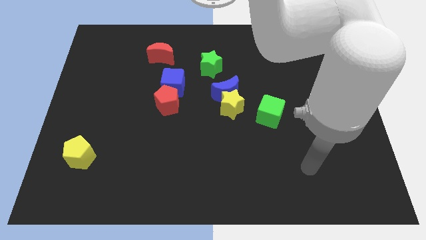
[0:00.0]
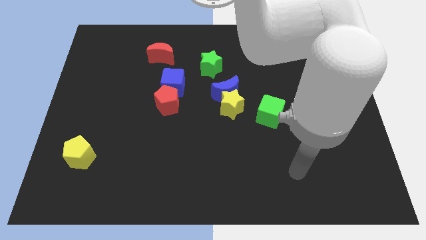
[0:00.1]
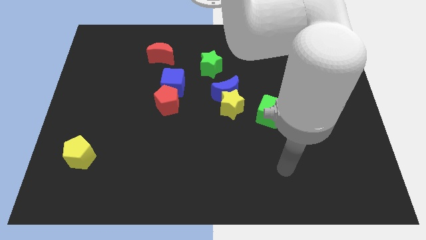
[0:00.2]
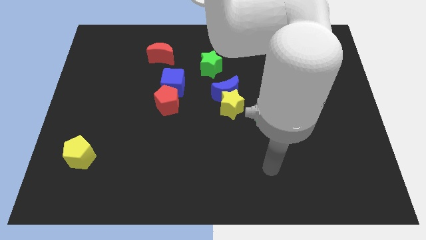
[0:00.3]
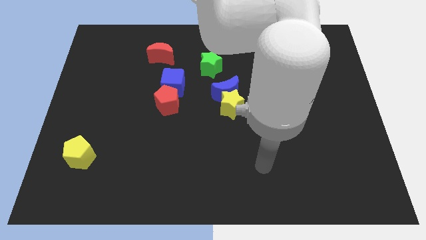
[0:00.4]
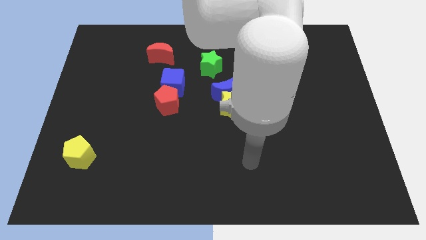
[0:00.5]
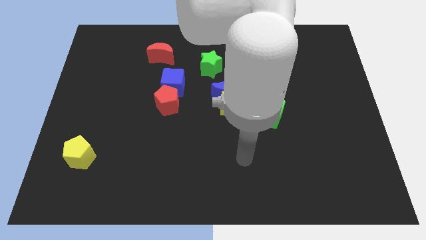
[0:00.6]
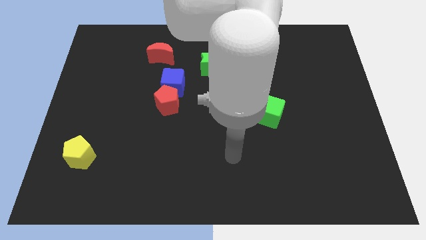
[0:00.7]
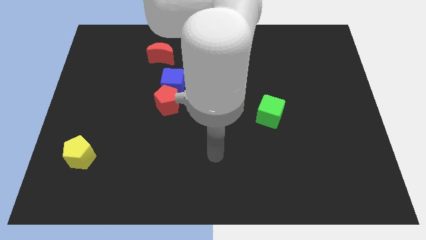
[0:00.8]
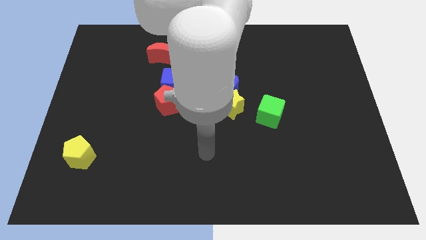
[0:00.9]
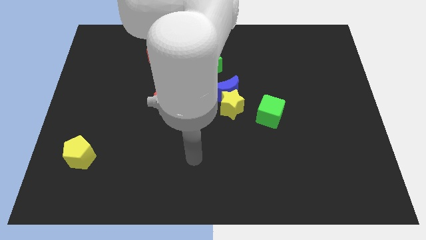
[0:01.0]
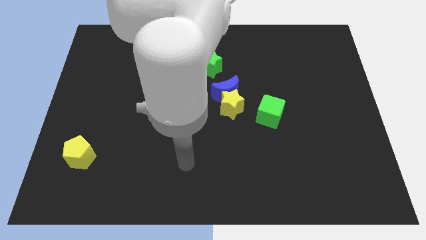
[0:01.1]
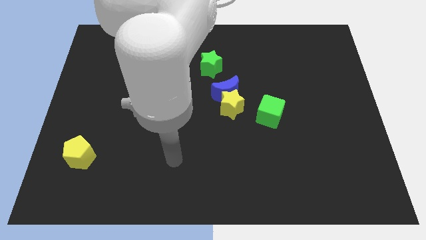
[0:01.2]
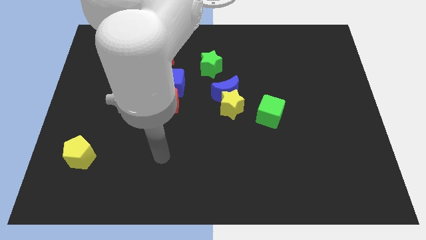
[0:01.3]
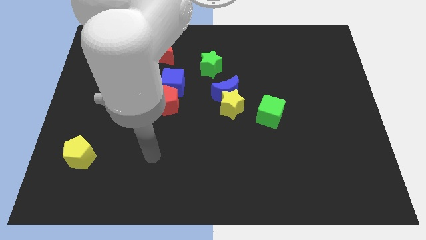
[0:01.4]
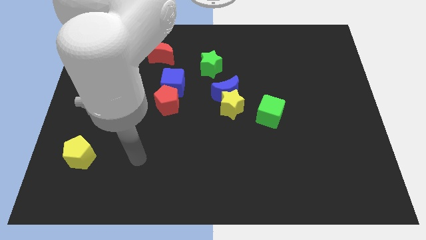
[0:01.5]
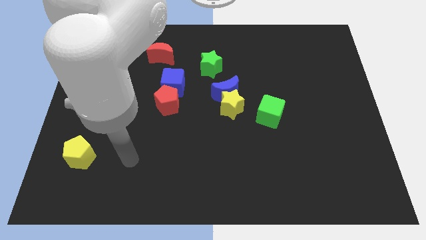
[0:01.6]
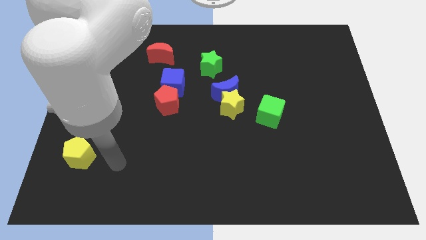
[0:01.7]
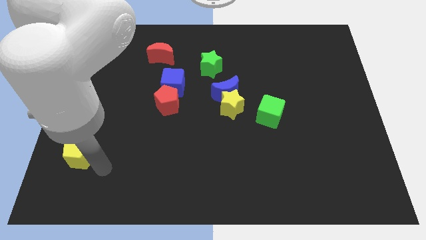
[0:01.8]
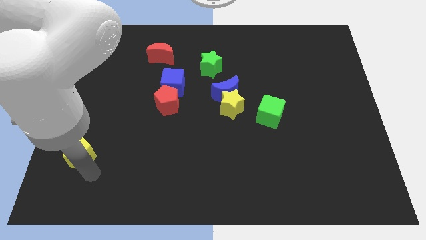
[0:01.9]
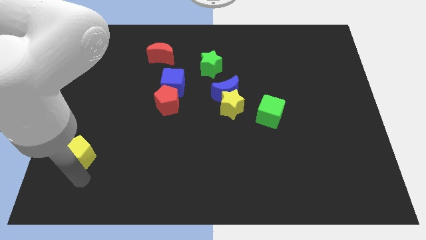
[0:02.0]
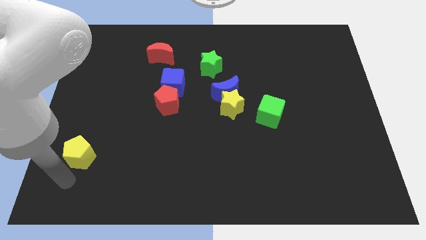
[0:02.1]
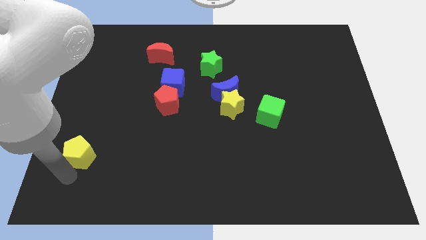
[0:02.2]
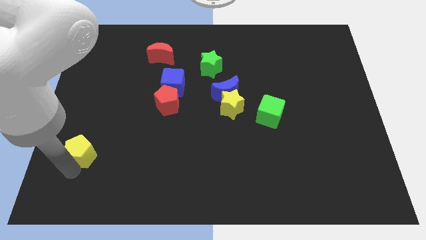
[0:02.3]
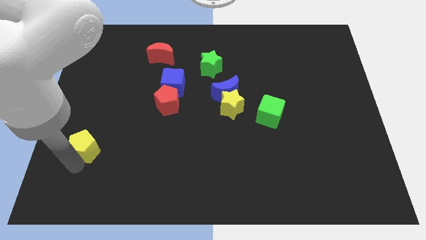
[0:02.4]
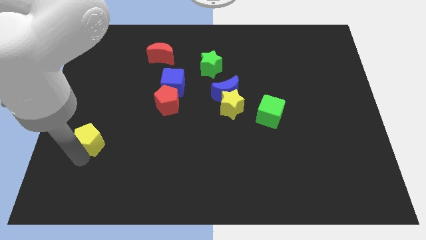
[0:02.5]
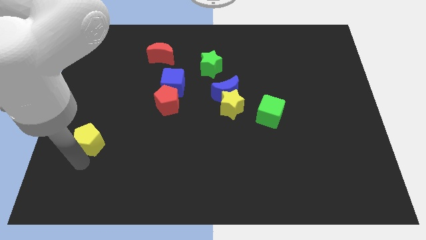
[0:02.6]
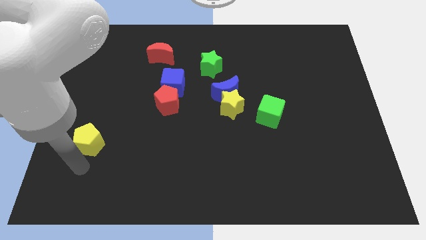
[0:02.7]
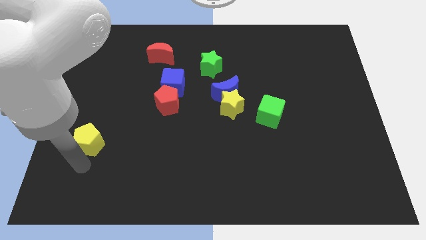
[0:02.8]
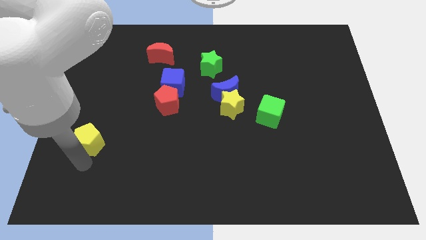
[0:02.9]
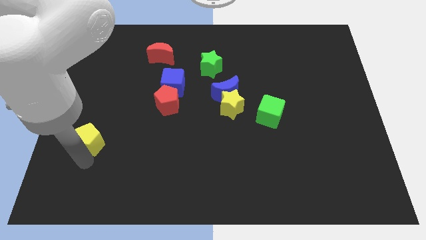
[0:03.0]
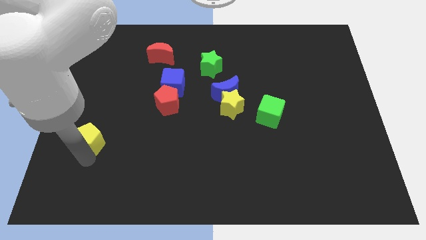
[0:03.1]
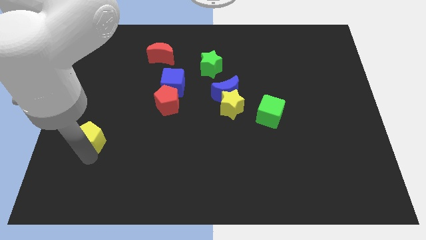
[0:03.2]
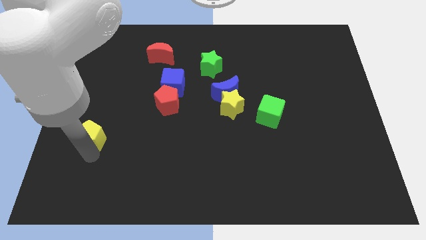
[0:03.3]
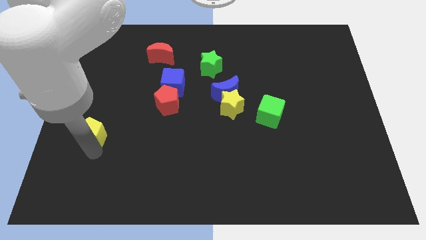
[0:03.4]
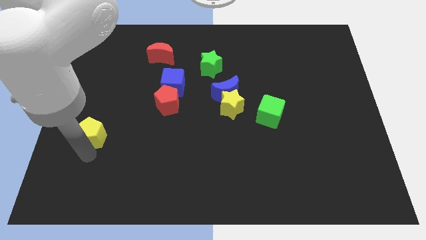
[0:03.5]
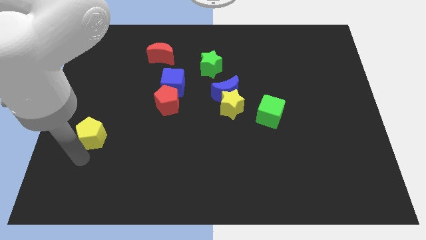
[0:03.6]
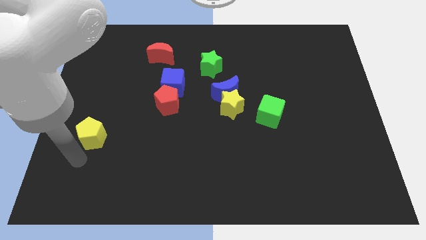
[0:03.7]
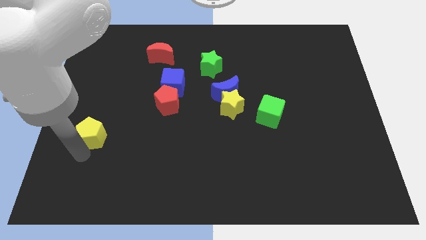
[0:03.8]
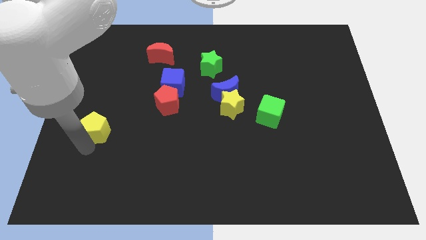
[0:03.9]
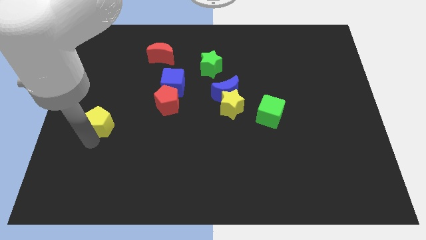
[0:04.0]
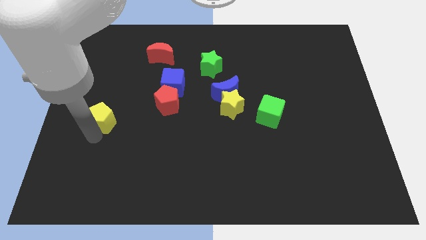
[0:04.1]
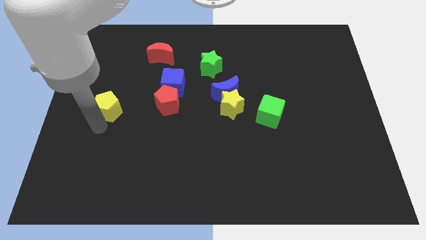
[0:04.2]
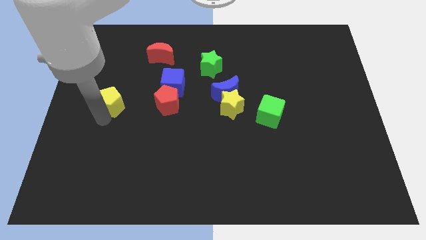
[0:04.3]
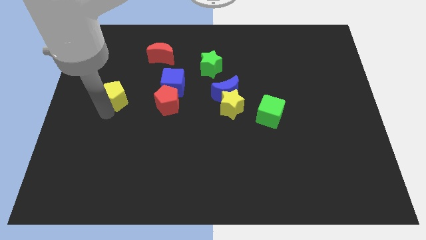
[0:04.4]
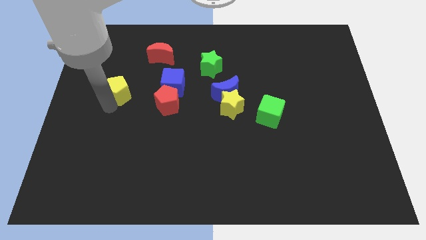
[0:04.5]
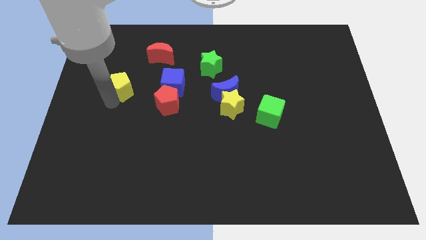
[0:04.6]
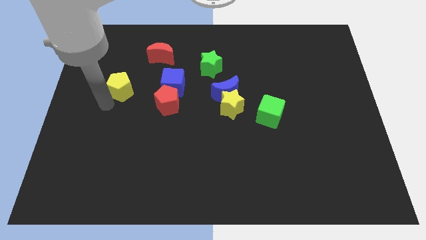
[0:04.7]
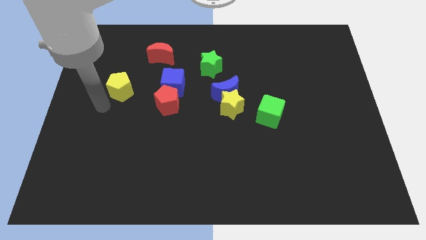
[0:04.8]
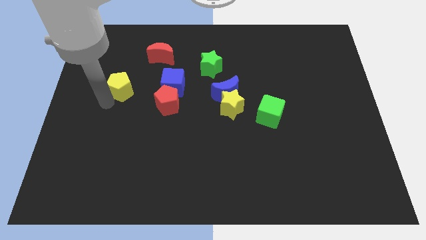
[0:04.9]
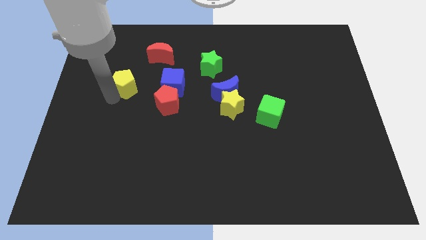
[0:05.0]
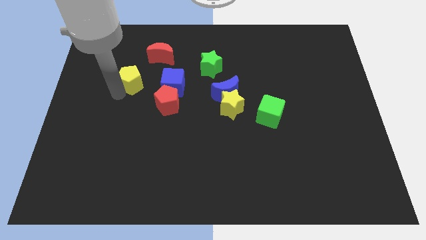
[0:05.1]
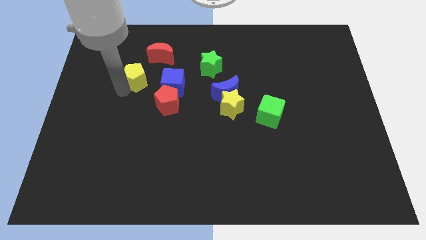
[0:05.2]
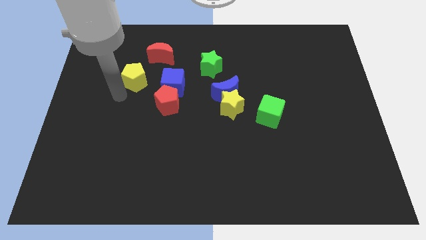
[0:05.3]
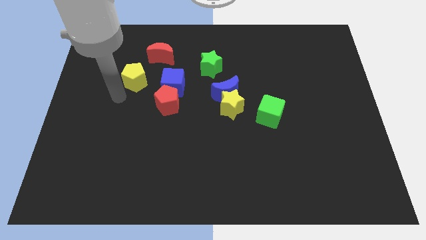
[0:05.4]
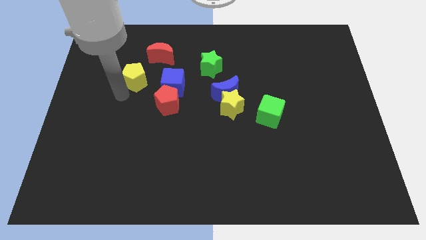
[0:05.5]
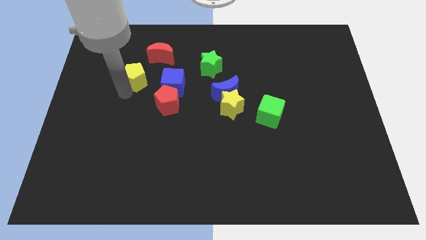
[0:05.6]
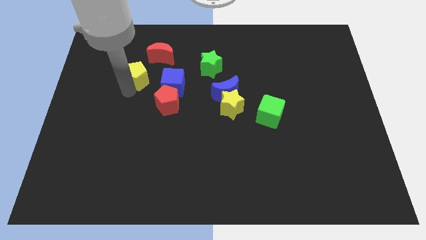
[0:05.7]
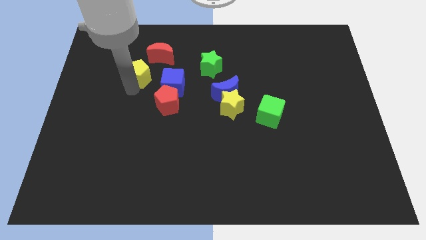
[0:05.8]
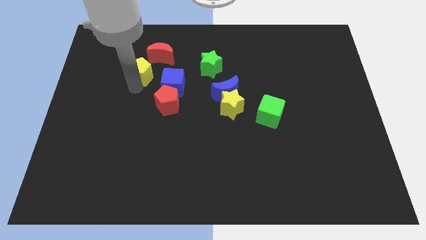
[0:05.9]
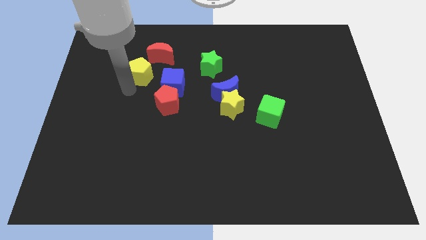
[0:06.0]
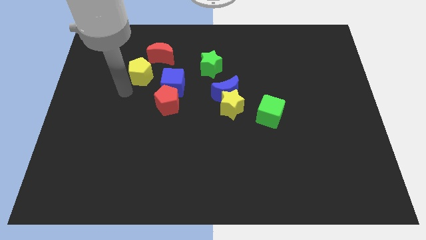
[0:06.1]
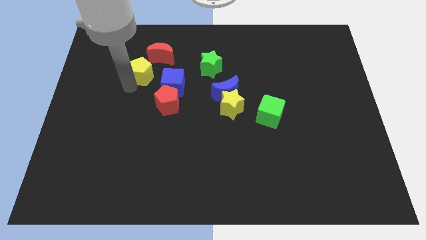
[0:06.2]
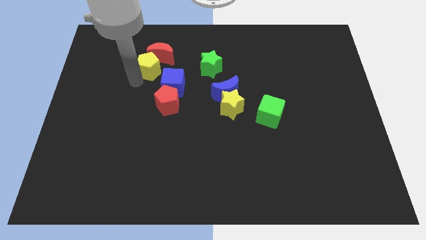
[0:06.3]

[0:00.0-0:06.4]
put the yellow pentagon towards the red moon

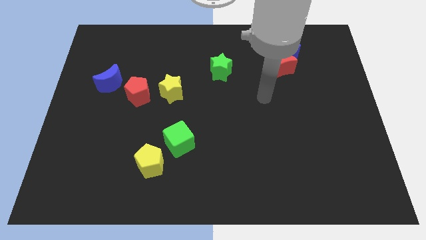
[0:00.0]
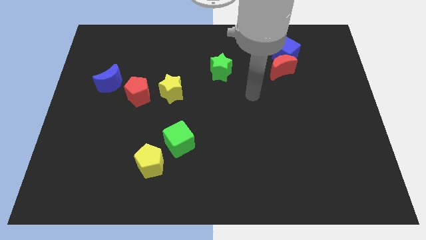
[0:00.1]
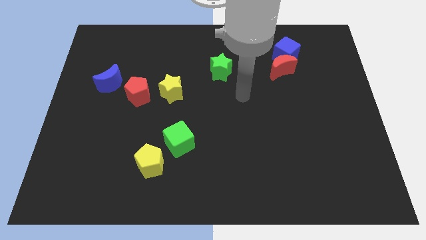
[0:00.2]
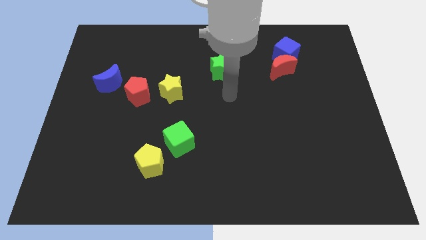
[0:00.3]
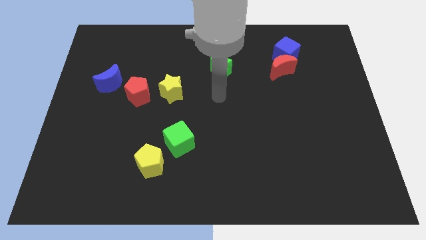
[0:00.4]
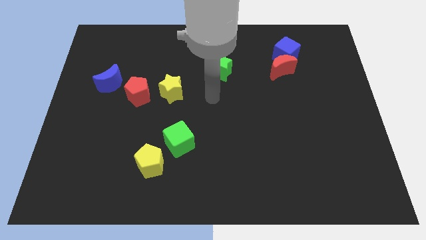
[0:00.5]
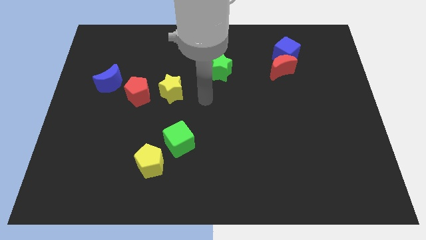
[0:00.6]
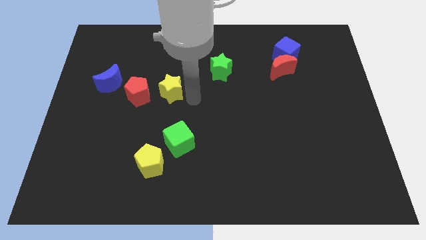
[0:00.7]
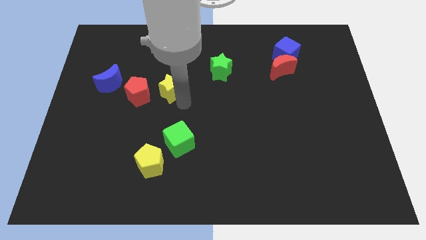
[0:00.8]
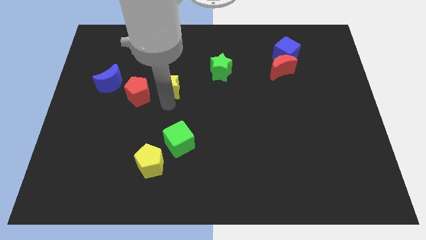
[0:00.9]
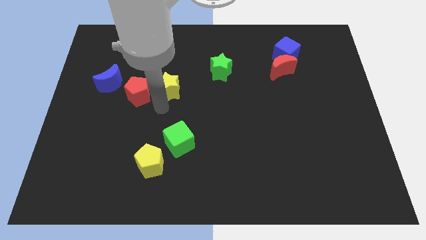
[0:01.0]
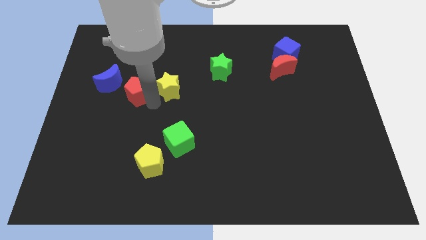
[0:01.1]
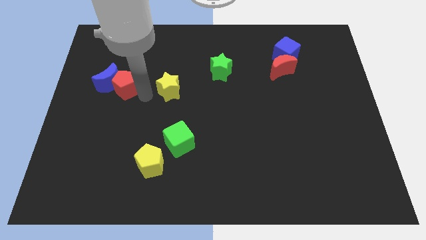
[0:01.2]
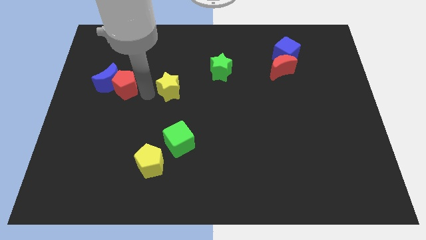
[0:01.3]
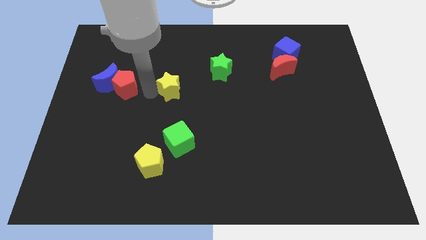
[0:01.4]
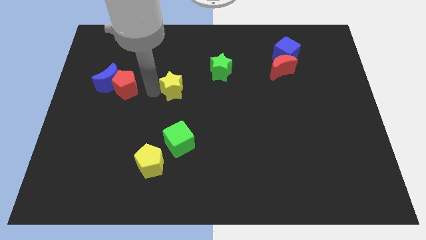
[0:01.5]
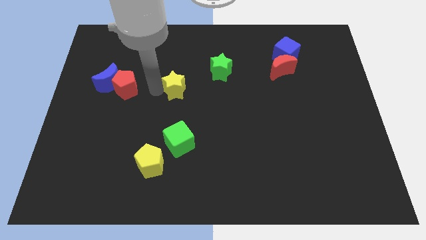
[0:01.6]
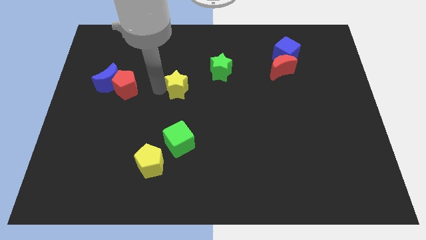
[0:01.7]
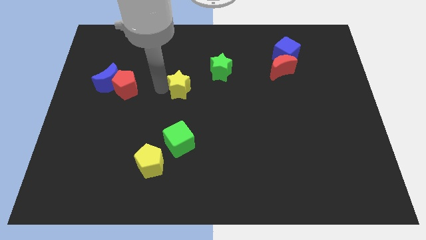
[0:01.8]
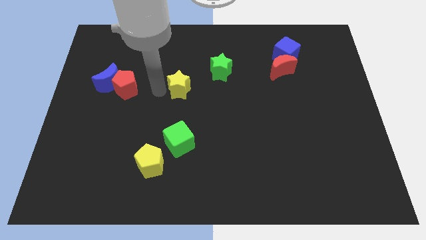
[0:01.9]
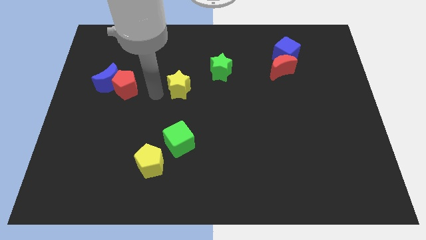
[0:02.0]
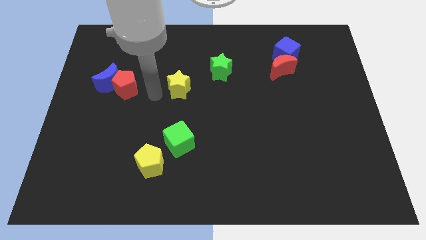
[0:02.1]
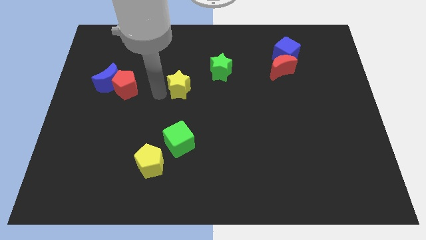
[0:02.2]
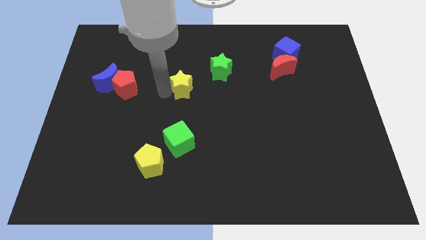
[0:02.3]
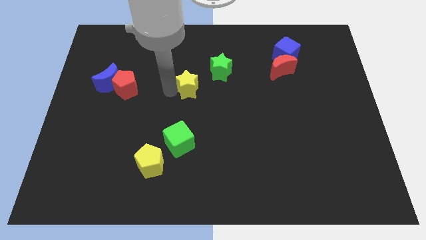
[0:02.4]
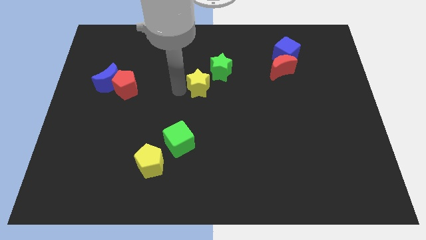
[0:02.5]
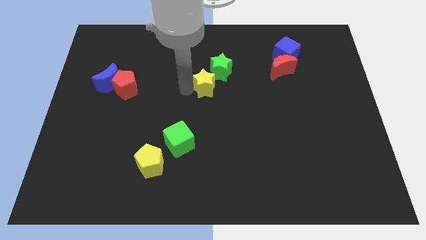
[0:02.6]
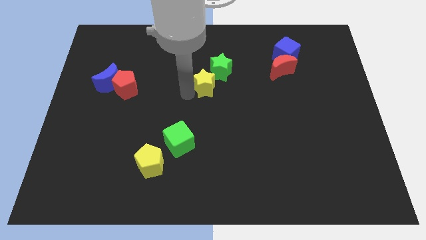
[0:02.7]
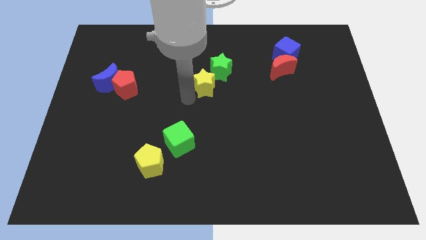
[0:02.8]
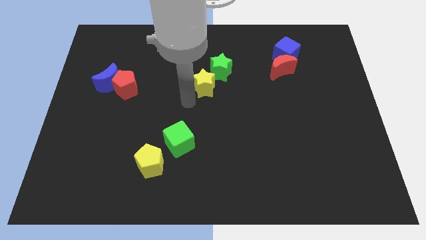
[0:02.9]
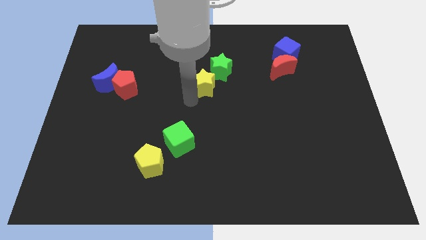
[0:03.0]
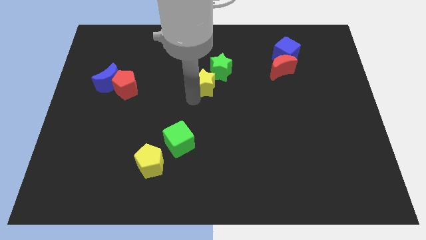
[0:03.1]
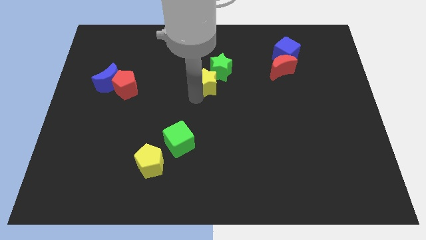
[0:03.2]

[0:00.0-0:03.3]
put the yellow star to the green star
